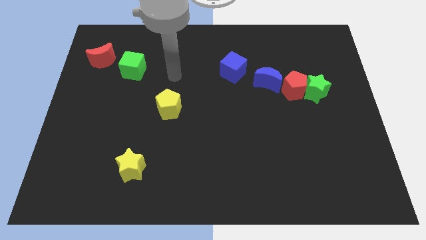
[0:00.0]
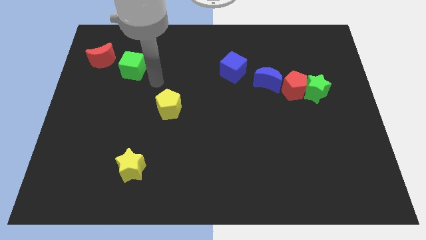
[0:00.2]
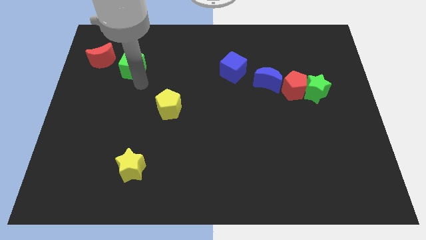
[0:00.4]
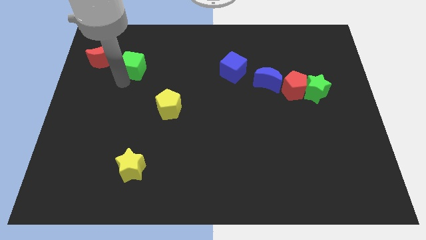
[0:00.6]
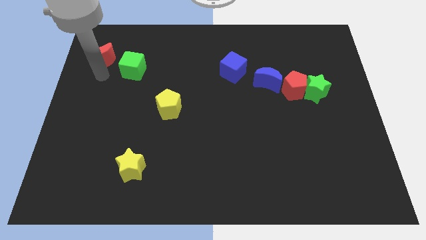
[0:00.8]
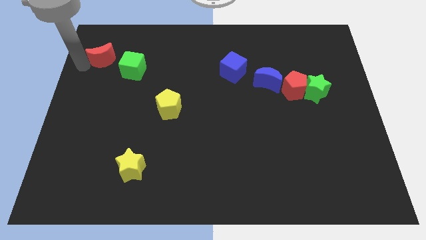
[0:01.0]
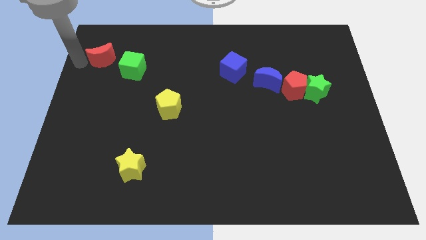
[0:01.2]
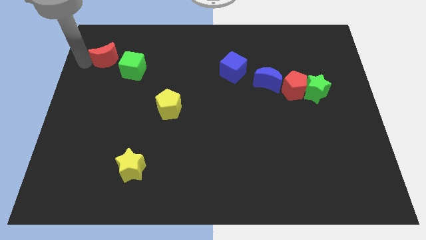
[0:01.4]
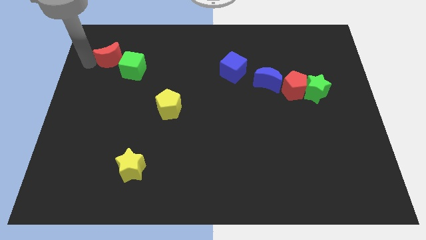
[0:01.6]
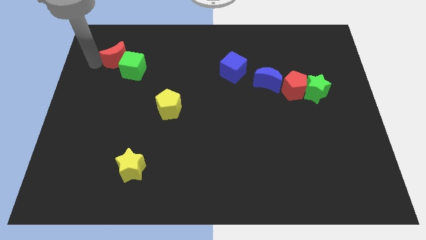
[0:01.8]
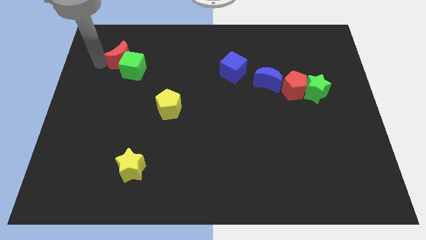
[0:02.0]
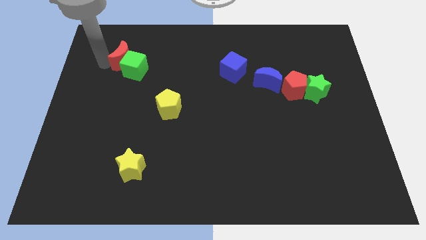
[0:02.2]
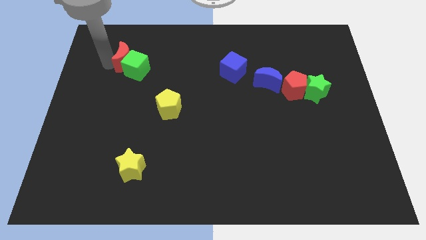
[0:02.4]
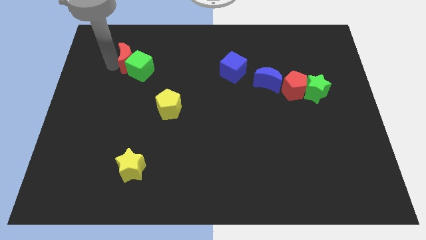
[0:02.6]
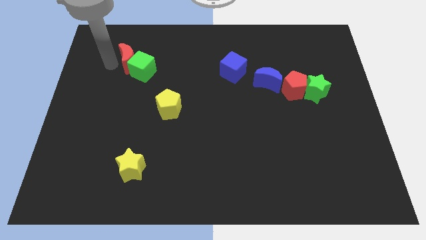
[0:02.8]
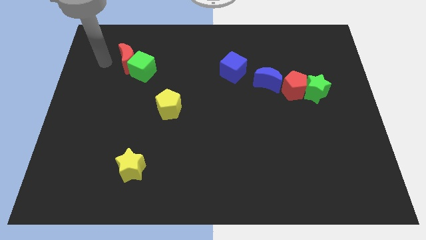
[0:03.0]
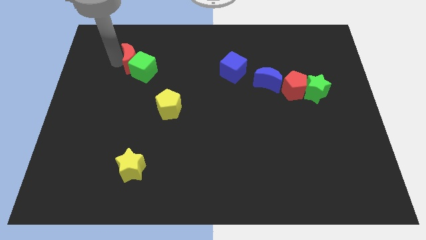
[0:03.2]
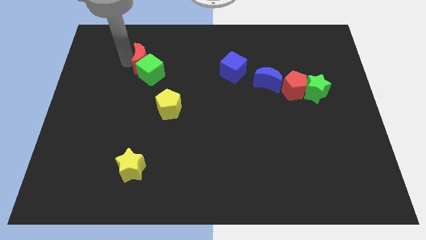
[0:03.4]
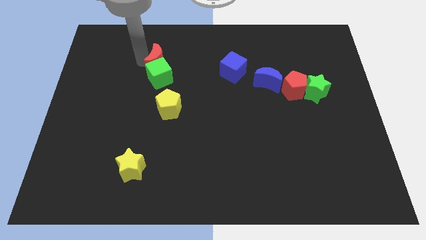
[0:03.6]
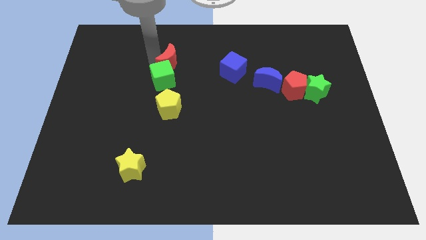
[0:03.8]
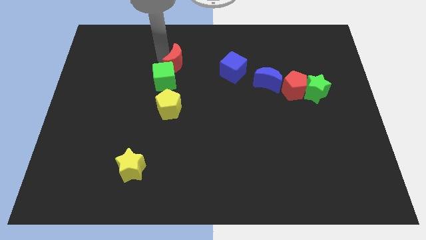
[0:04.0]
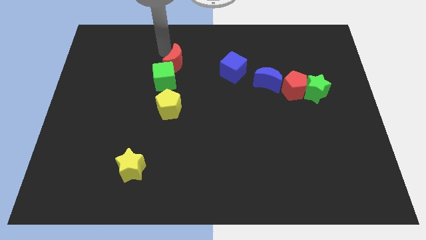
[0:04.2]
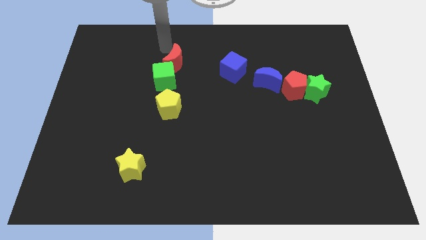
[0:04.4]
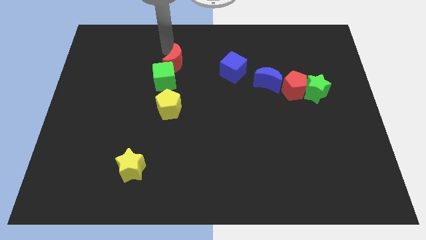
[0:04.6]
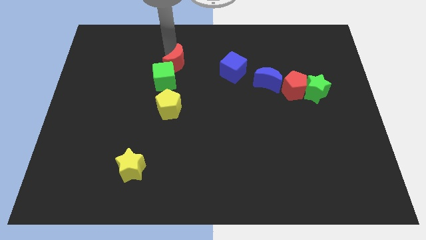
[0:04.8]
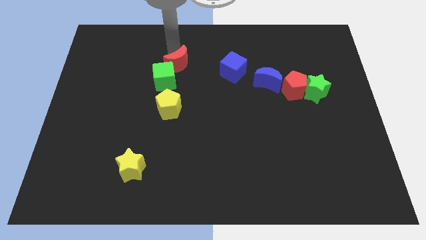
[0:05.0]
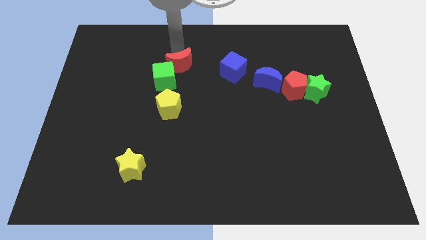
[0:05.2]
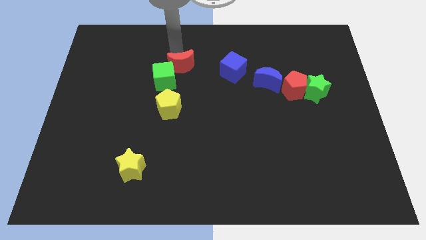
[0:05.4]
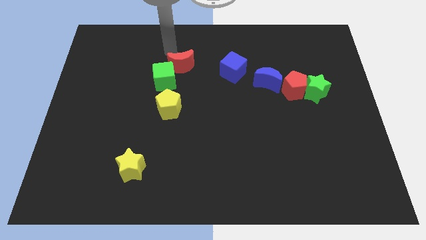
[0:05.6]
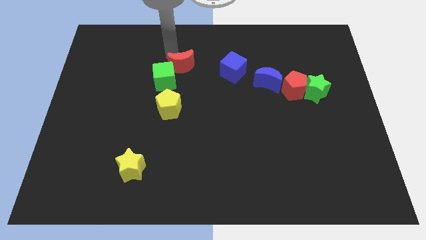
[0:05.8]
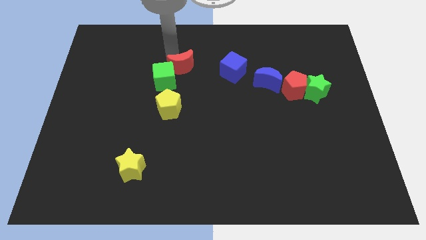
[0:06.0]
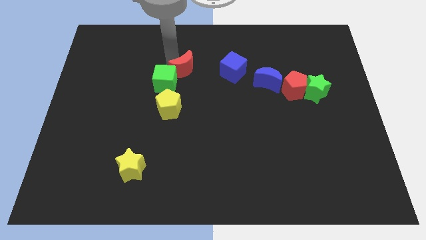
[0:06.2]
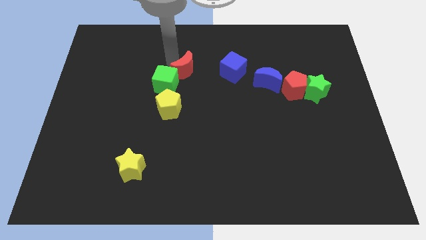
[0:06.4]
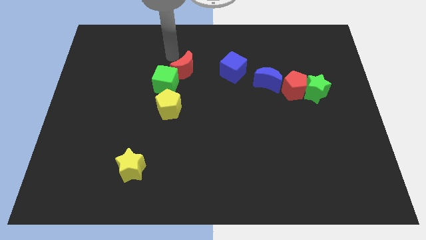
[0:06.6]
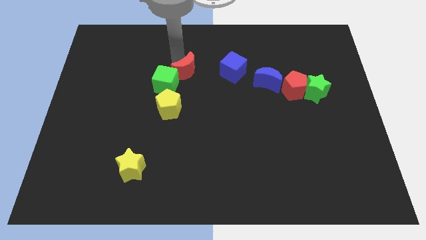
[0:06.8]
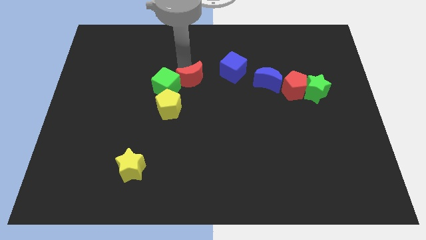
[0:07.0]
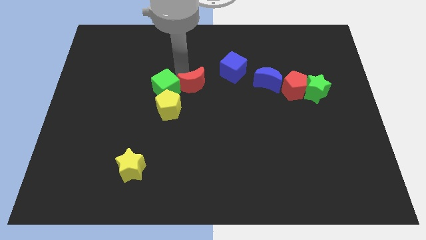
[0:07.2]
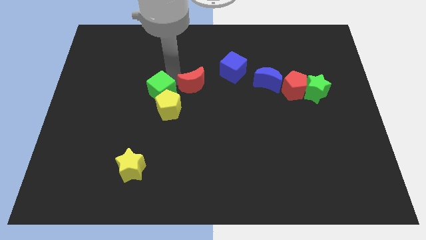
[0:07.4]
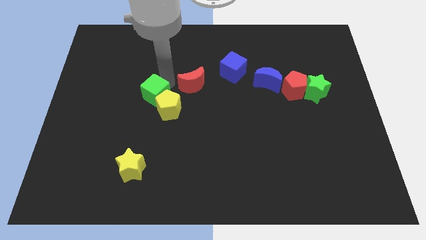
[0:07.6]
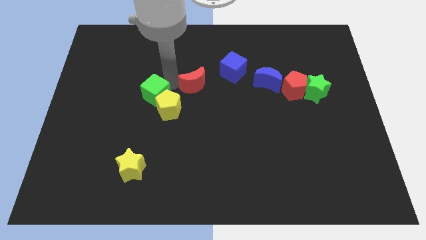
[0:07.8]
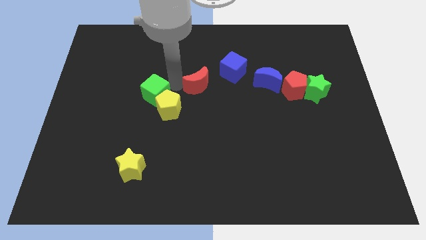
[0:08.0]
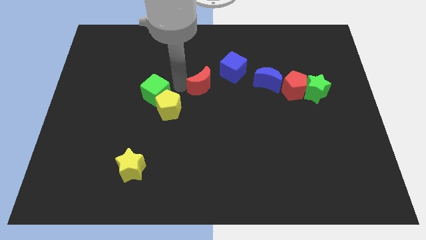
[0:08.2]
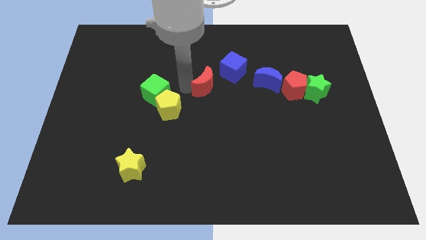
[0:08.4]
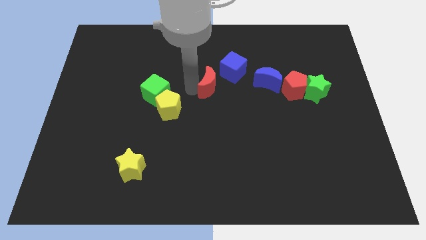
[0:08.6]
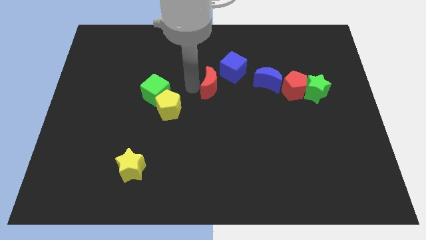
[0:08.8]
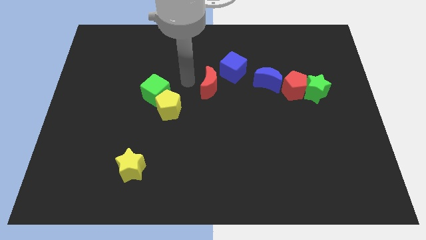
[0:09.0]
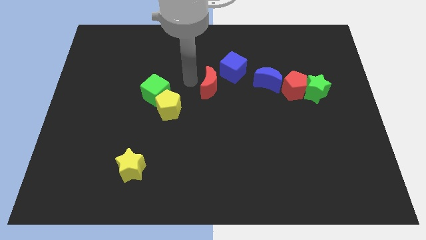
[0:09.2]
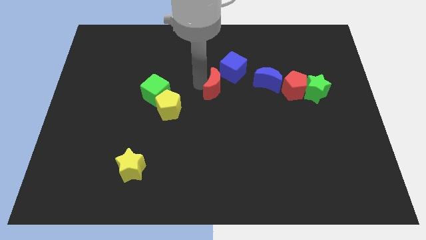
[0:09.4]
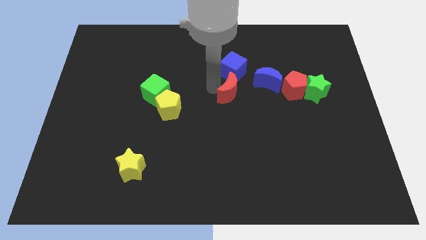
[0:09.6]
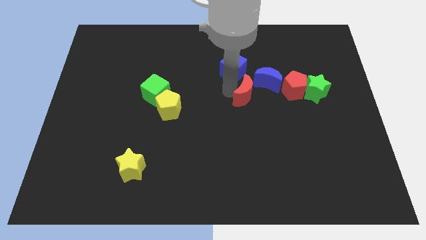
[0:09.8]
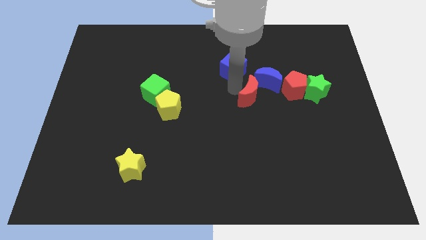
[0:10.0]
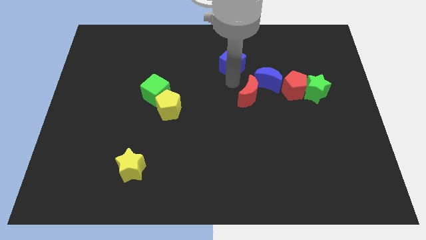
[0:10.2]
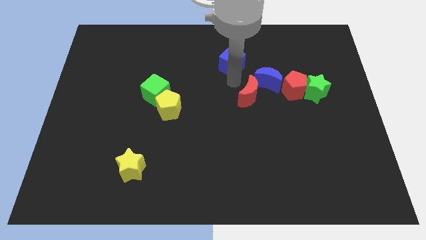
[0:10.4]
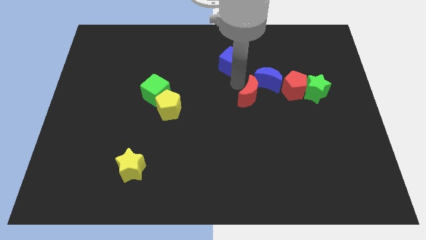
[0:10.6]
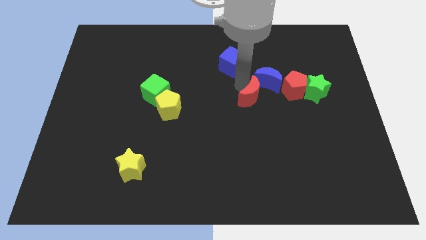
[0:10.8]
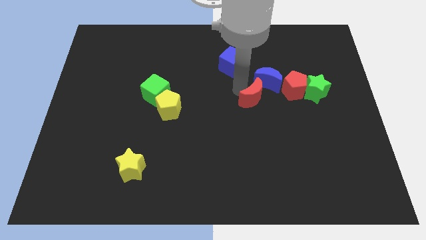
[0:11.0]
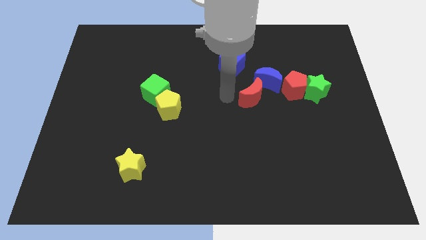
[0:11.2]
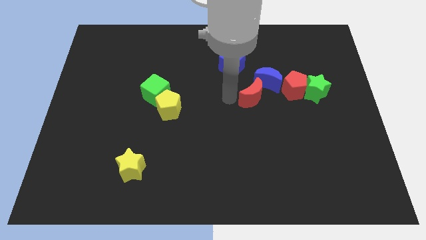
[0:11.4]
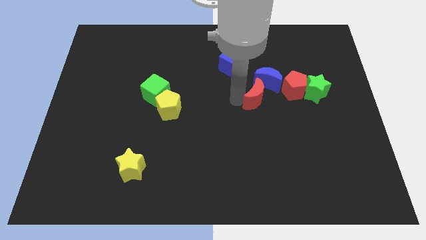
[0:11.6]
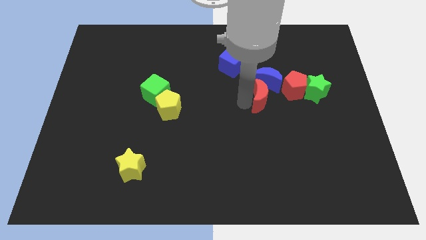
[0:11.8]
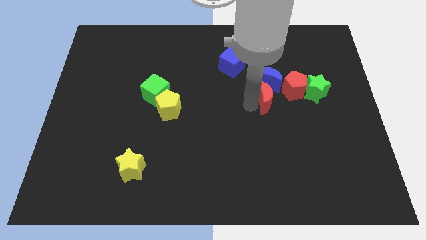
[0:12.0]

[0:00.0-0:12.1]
push the red moon diagonally down and to the right of the blue moon

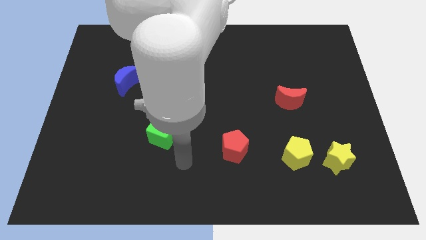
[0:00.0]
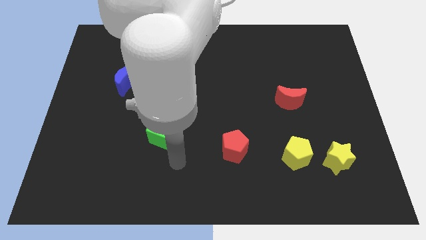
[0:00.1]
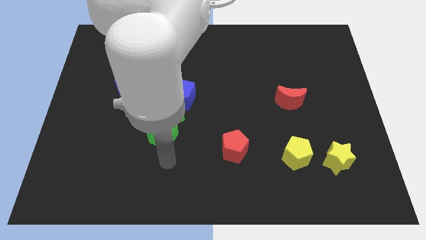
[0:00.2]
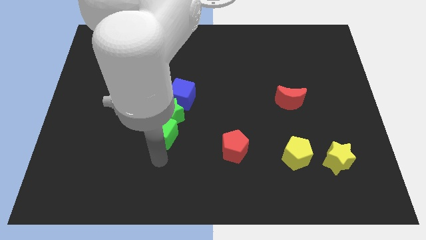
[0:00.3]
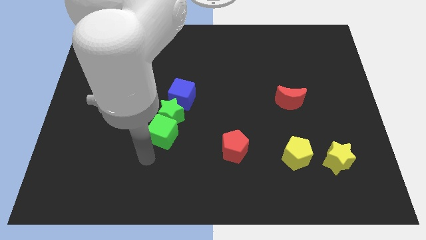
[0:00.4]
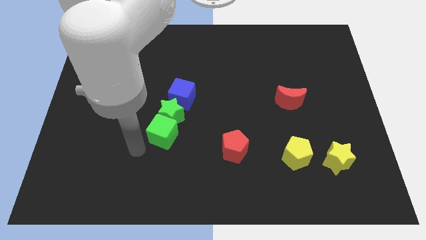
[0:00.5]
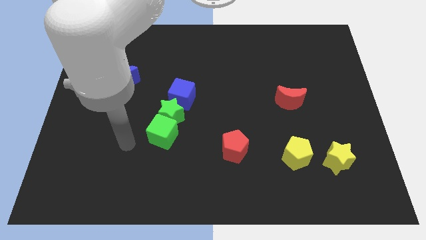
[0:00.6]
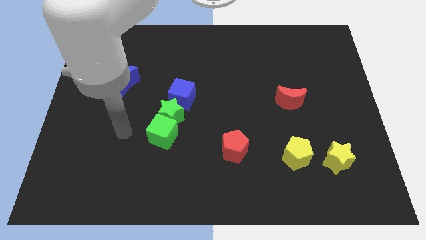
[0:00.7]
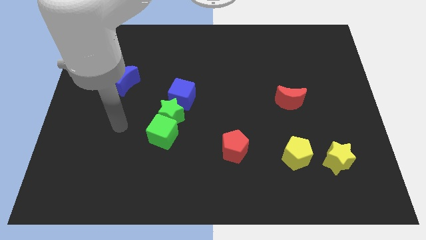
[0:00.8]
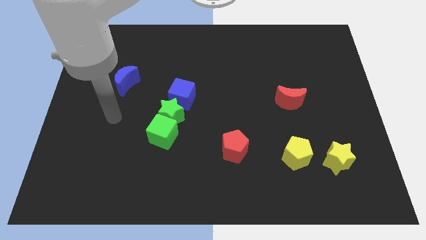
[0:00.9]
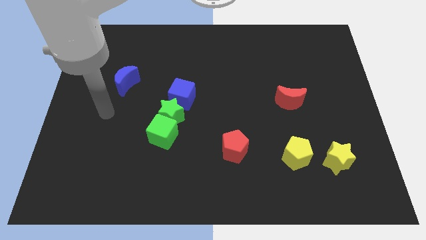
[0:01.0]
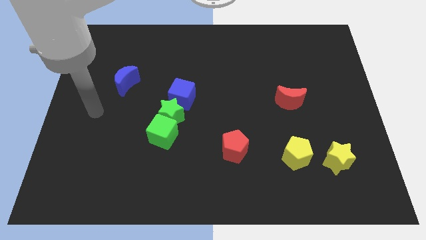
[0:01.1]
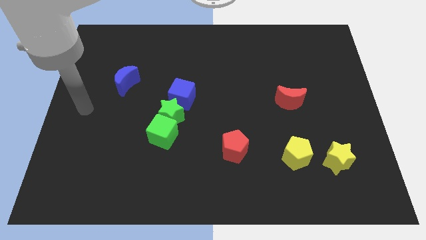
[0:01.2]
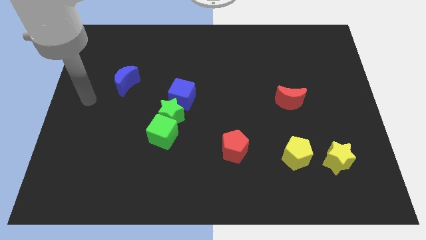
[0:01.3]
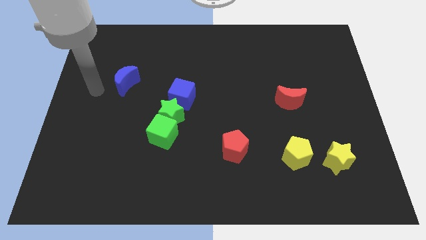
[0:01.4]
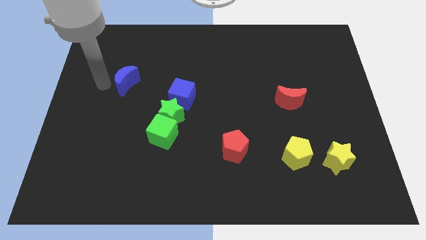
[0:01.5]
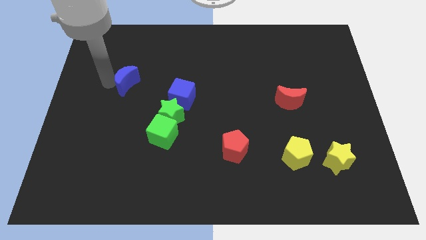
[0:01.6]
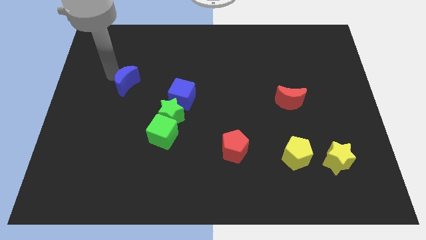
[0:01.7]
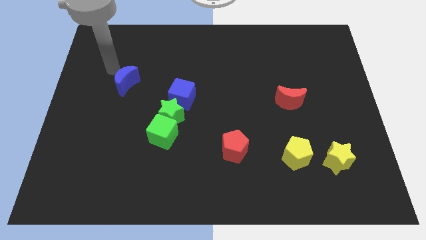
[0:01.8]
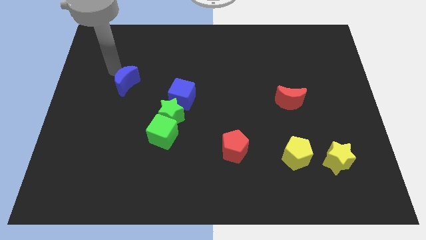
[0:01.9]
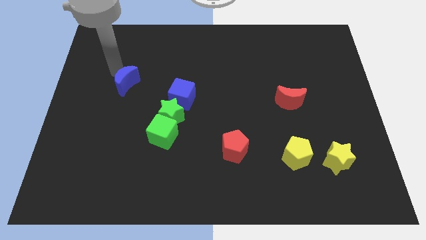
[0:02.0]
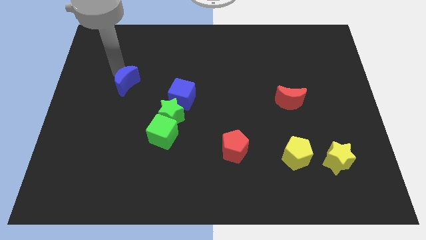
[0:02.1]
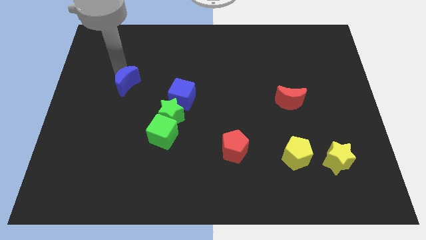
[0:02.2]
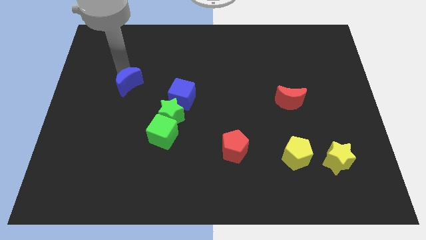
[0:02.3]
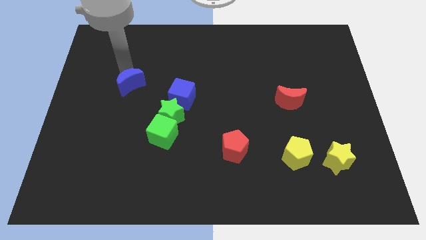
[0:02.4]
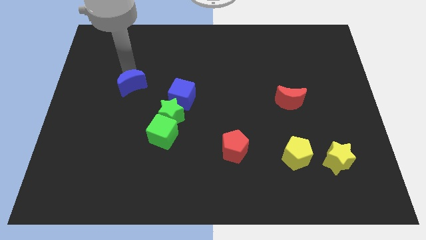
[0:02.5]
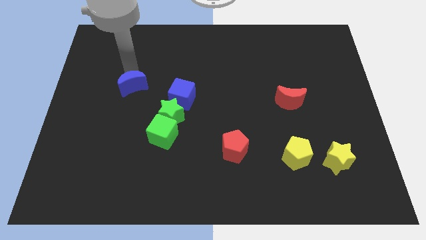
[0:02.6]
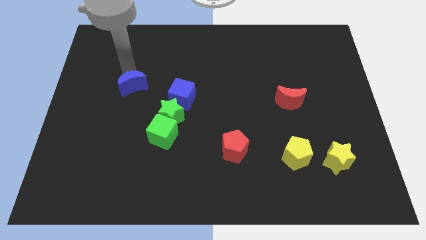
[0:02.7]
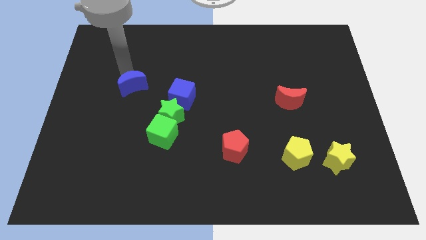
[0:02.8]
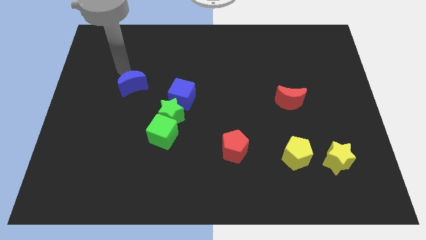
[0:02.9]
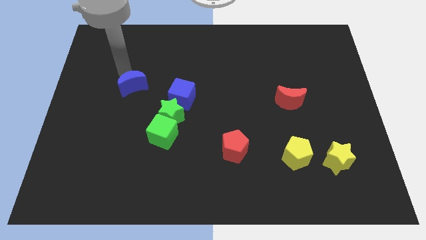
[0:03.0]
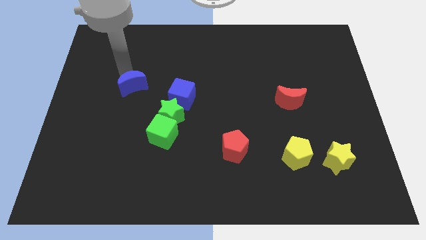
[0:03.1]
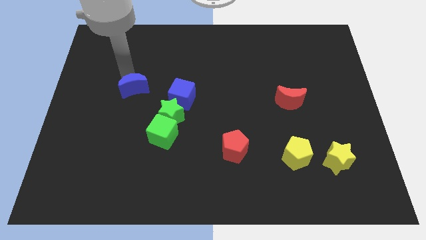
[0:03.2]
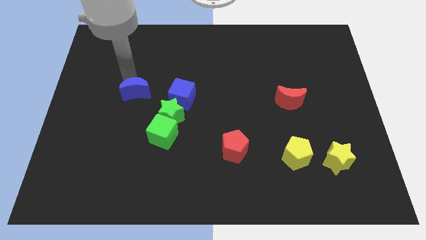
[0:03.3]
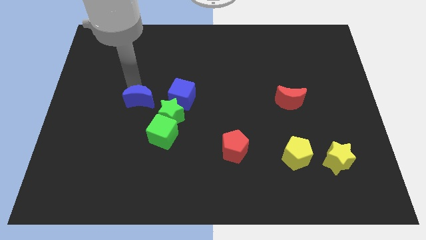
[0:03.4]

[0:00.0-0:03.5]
put the blue moon to the top left of the green cube
